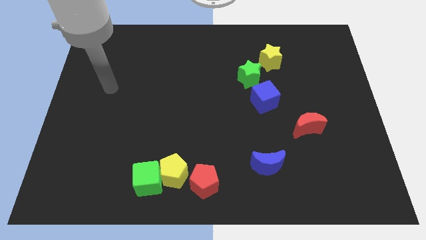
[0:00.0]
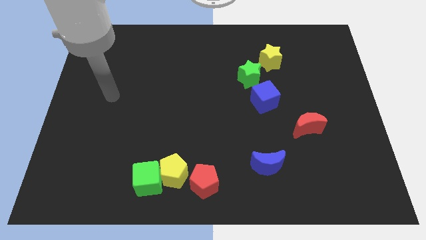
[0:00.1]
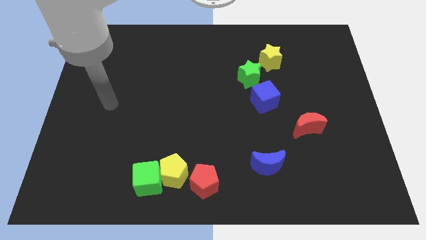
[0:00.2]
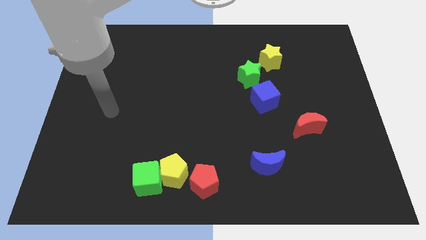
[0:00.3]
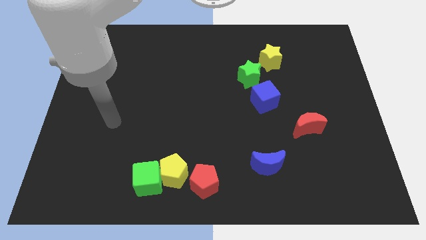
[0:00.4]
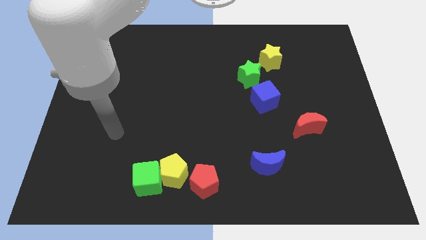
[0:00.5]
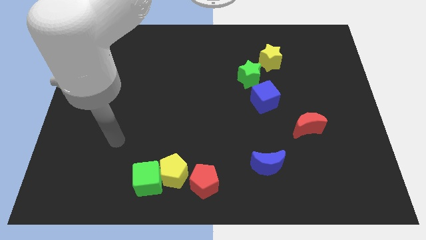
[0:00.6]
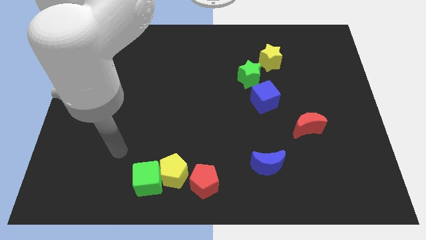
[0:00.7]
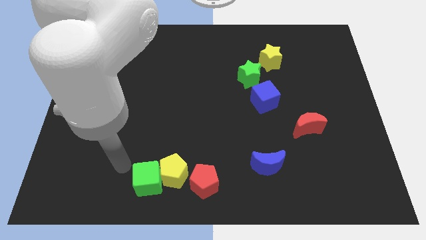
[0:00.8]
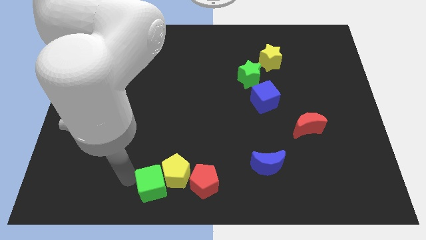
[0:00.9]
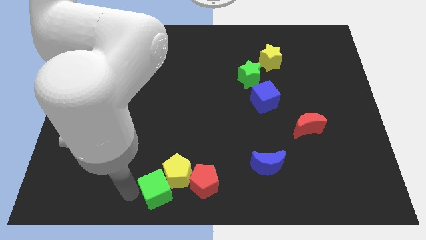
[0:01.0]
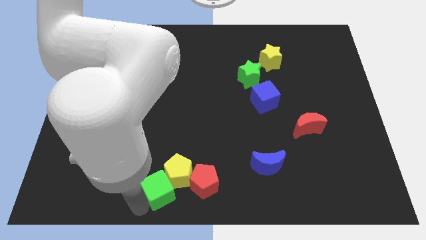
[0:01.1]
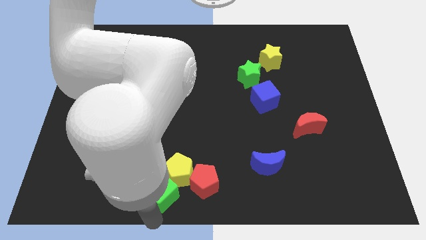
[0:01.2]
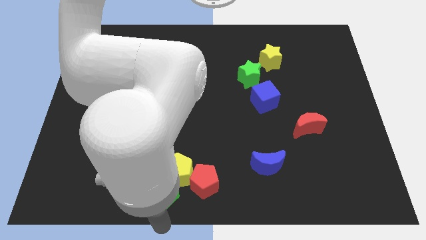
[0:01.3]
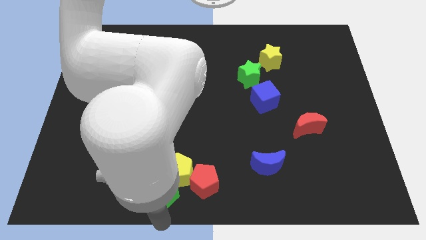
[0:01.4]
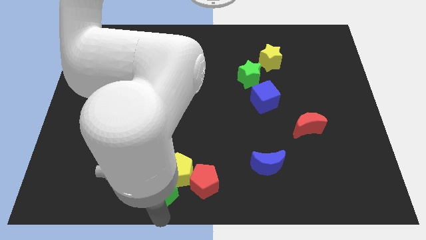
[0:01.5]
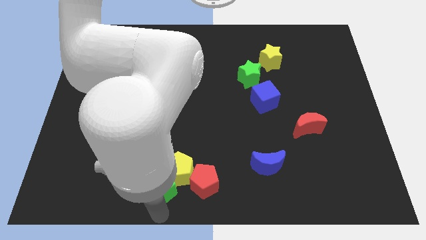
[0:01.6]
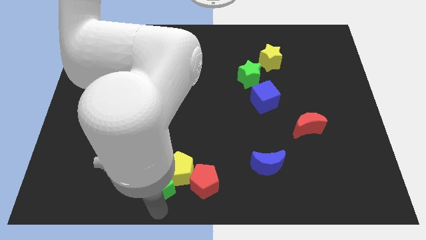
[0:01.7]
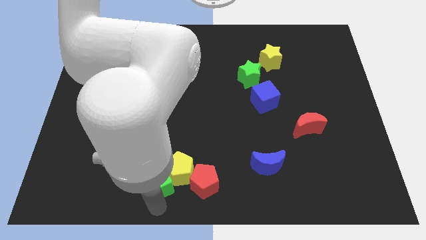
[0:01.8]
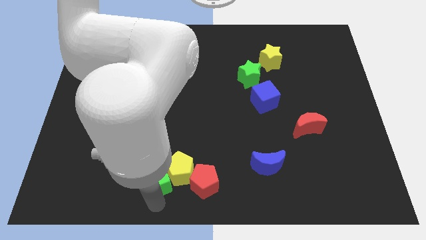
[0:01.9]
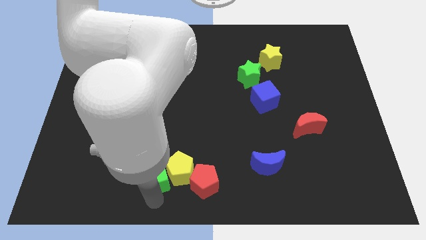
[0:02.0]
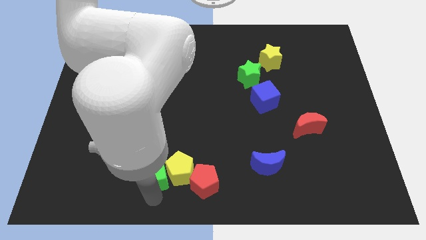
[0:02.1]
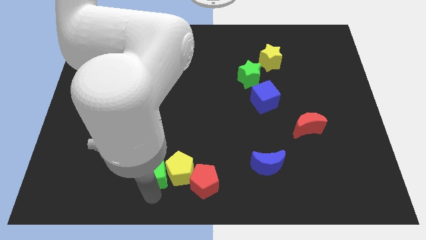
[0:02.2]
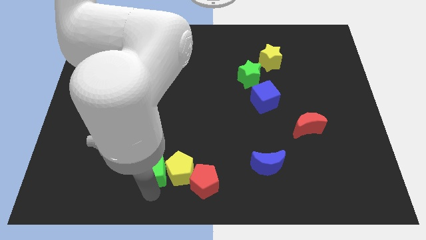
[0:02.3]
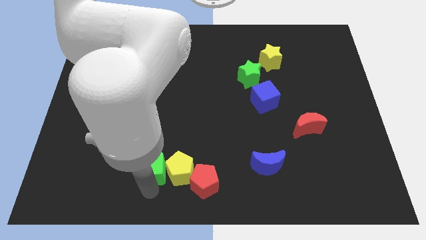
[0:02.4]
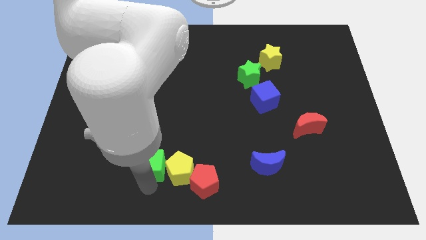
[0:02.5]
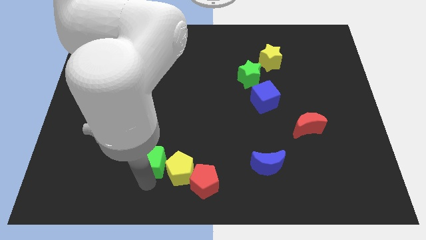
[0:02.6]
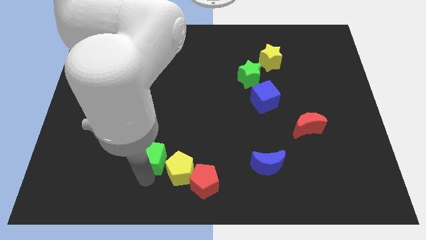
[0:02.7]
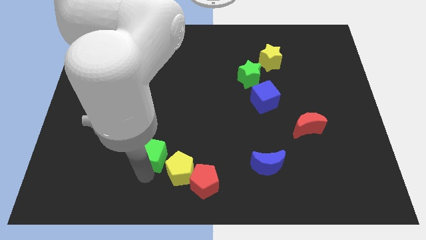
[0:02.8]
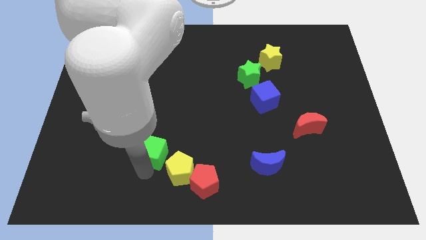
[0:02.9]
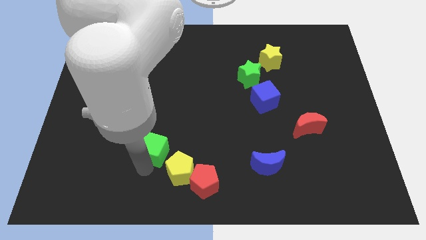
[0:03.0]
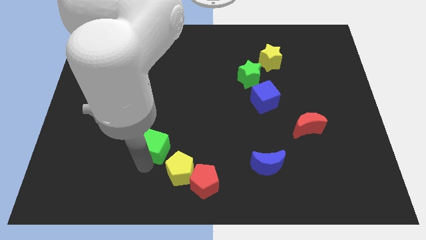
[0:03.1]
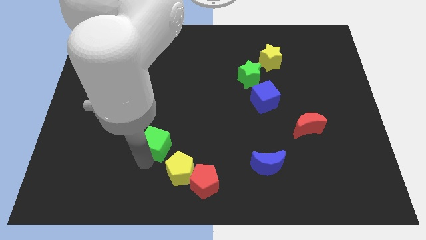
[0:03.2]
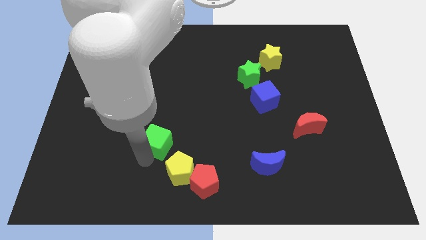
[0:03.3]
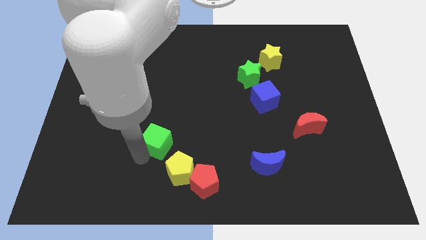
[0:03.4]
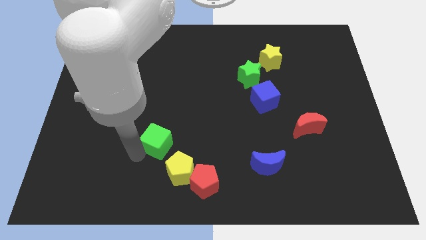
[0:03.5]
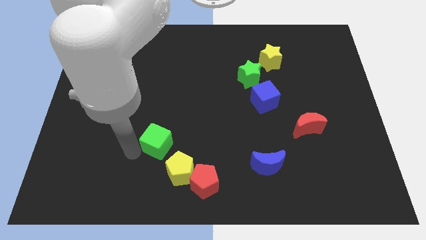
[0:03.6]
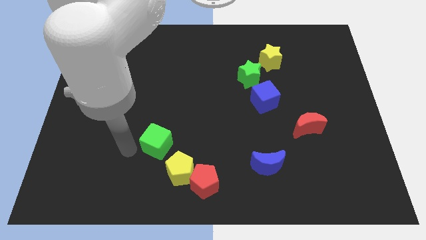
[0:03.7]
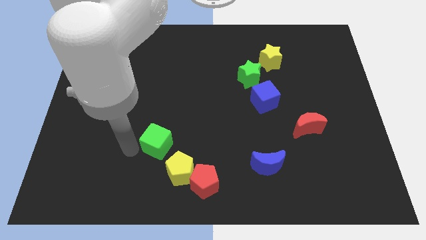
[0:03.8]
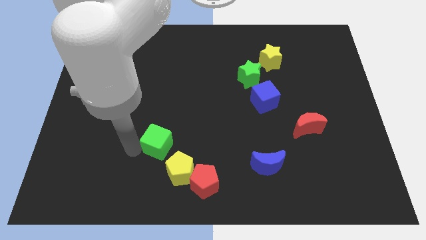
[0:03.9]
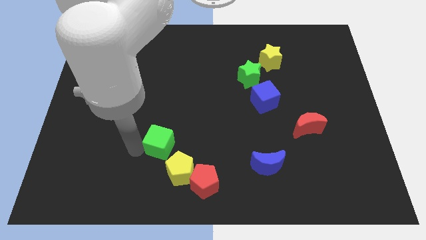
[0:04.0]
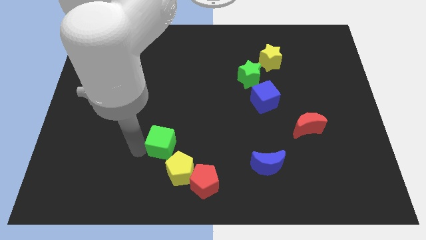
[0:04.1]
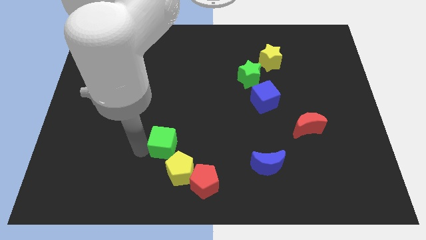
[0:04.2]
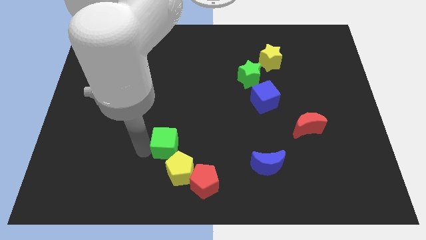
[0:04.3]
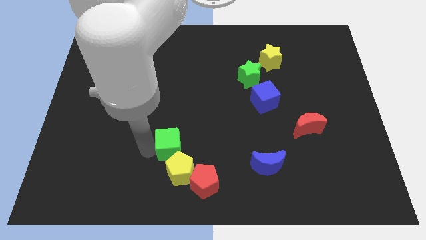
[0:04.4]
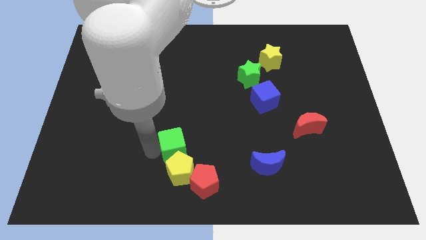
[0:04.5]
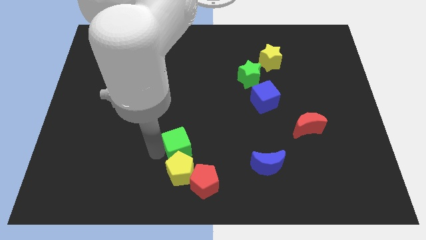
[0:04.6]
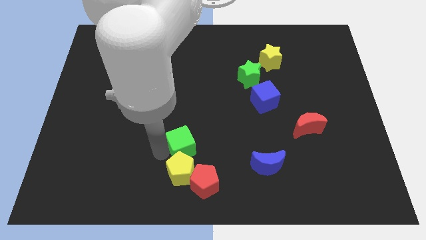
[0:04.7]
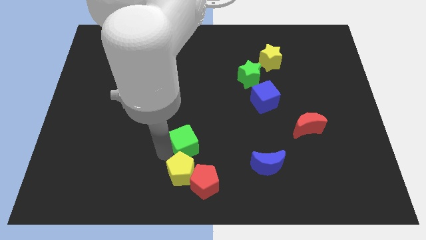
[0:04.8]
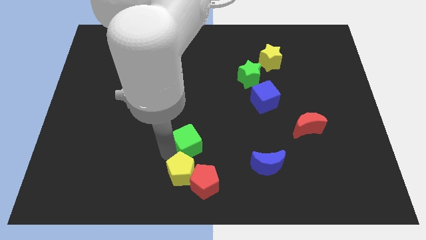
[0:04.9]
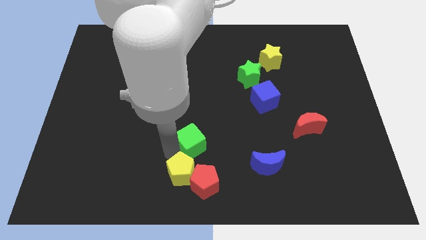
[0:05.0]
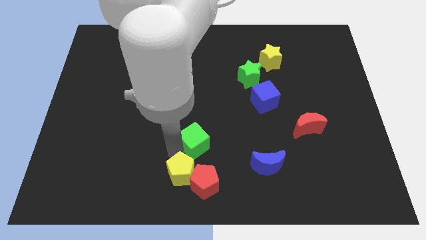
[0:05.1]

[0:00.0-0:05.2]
push the green cube to the middle
